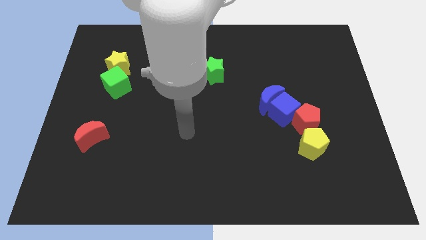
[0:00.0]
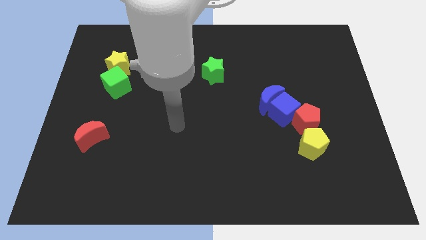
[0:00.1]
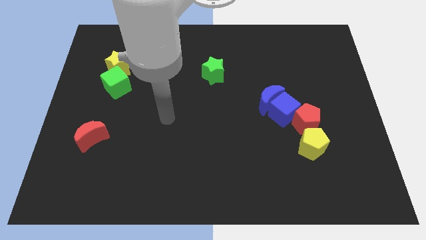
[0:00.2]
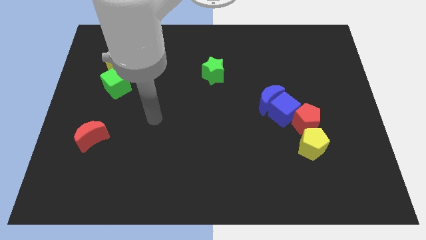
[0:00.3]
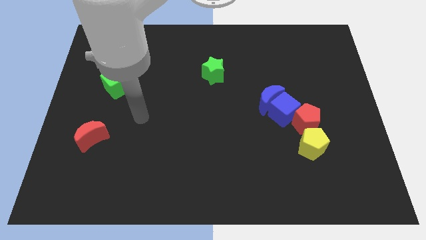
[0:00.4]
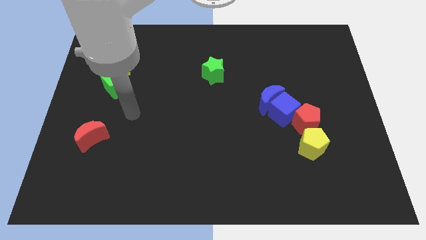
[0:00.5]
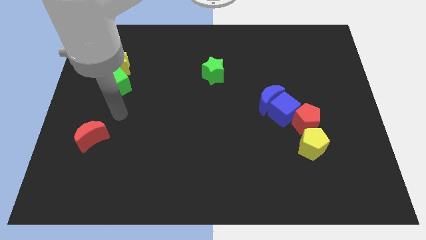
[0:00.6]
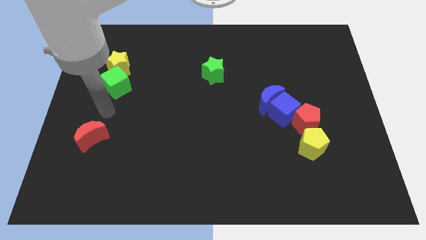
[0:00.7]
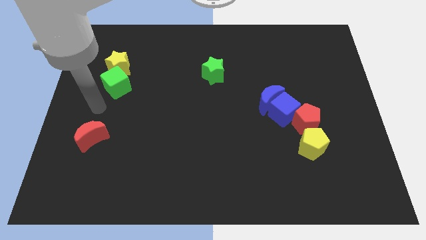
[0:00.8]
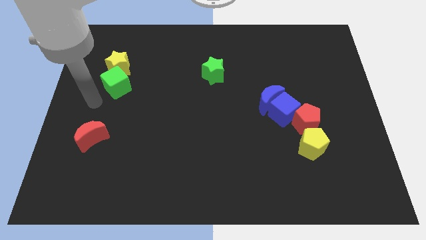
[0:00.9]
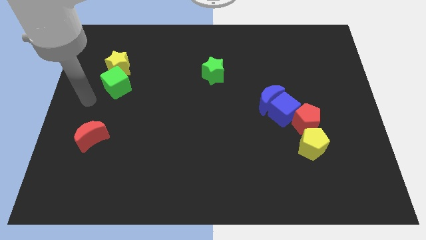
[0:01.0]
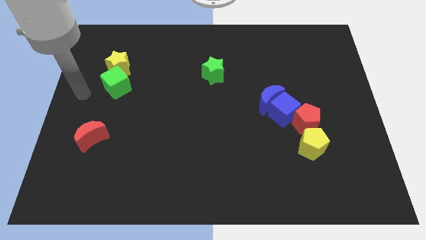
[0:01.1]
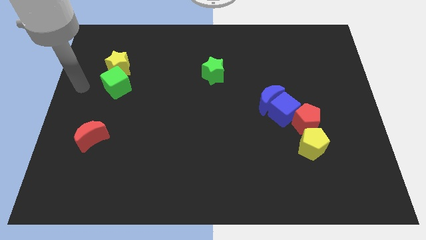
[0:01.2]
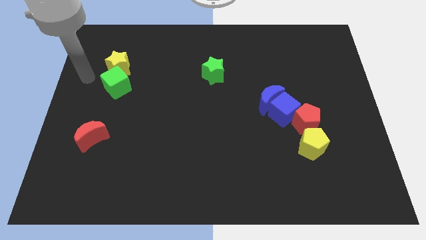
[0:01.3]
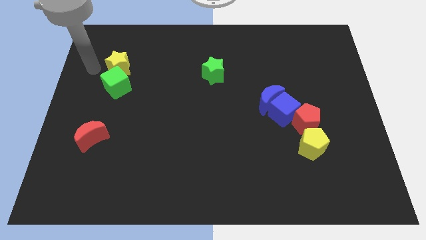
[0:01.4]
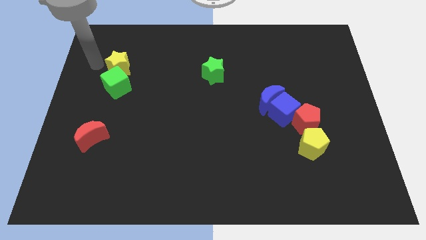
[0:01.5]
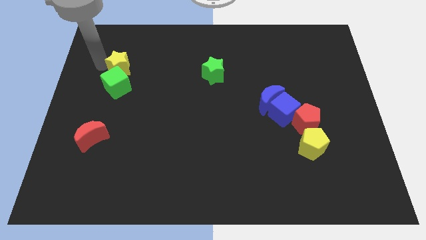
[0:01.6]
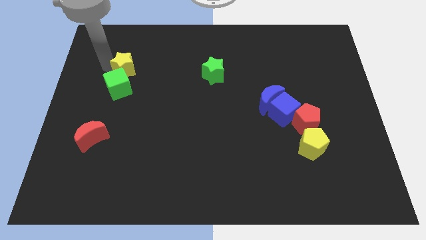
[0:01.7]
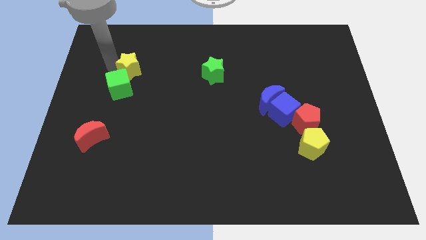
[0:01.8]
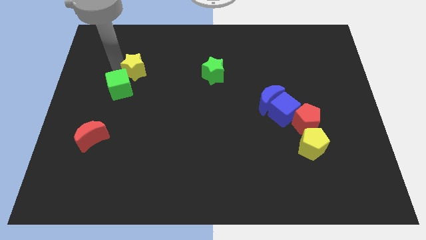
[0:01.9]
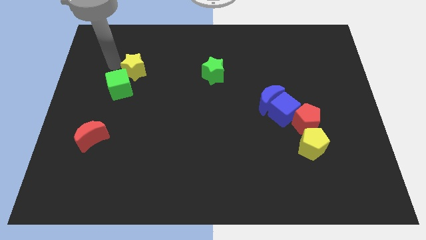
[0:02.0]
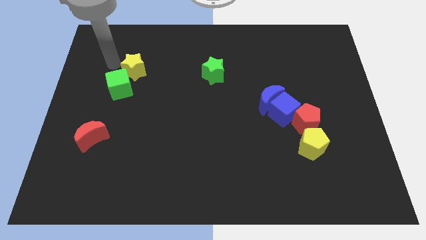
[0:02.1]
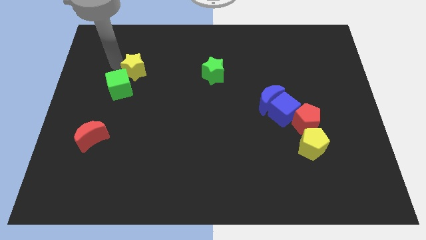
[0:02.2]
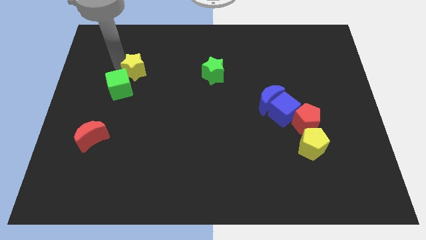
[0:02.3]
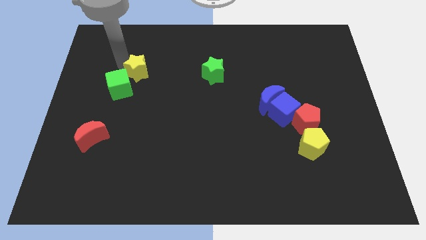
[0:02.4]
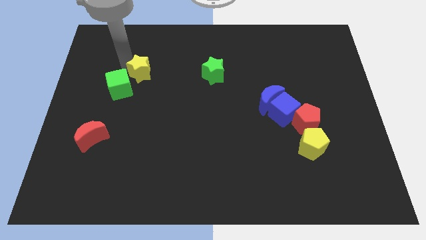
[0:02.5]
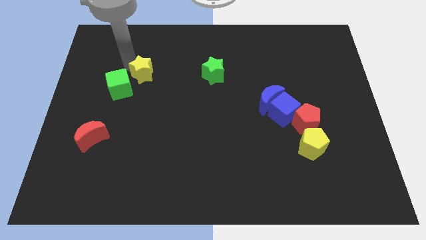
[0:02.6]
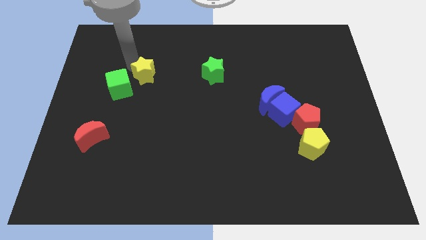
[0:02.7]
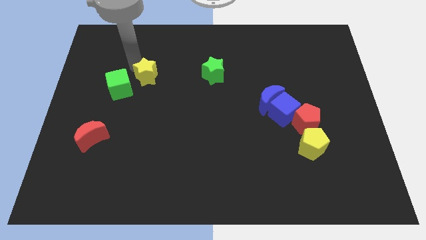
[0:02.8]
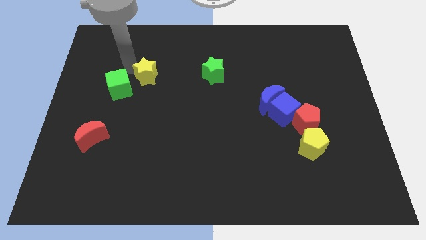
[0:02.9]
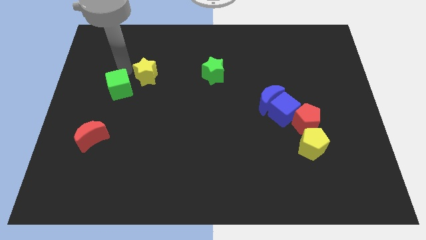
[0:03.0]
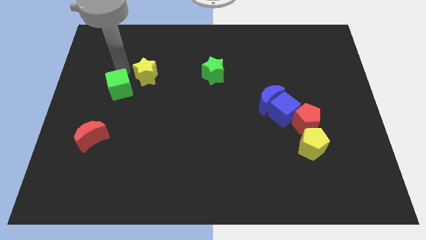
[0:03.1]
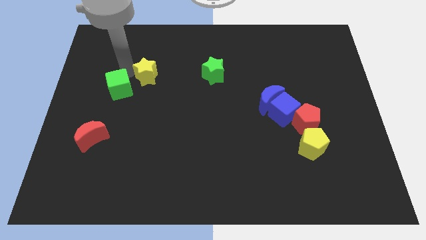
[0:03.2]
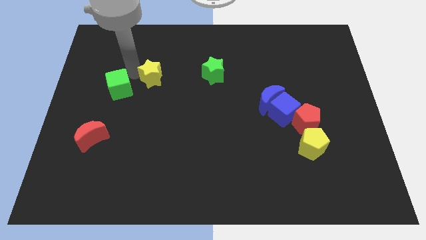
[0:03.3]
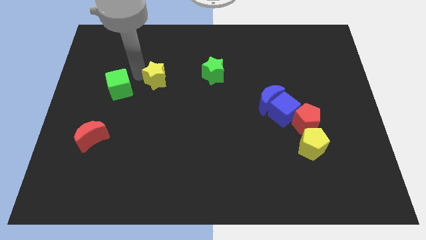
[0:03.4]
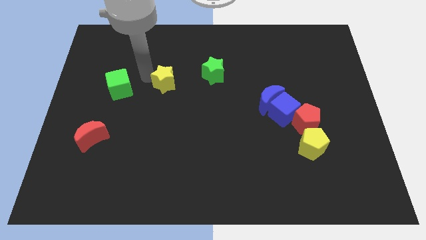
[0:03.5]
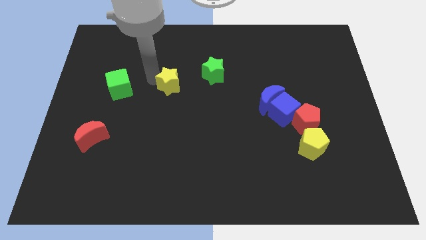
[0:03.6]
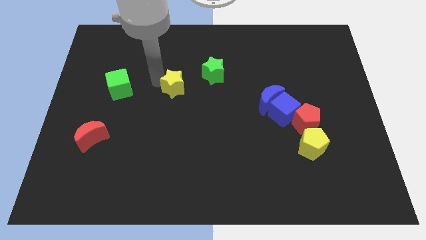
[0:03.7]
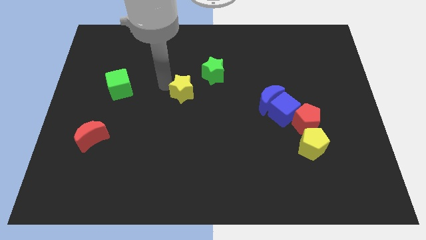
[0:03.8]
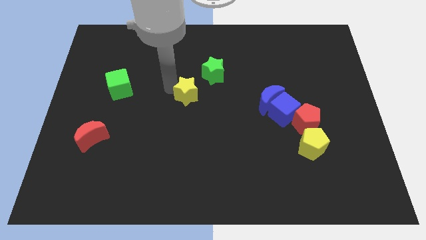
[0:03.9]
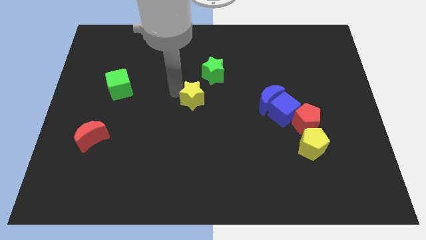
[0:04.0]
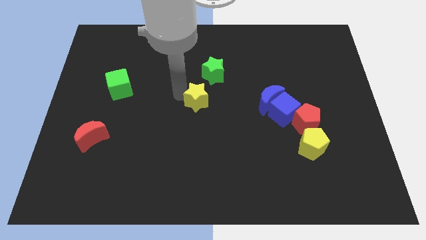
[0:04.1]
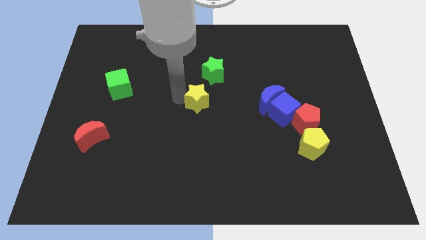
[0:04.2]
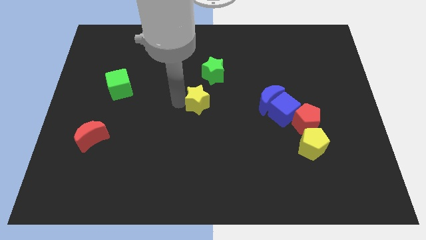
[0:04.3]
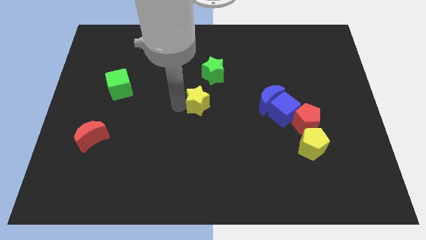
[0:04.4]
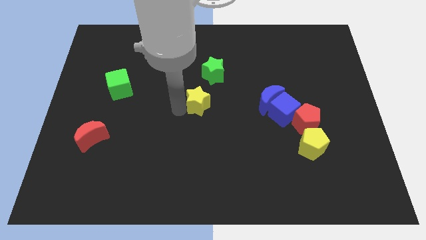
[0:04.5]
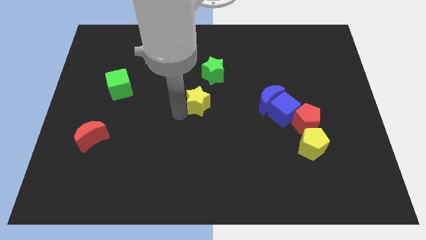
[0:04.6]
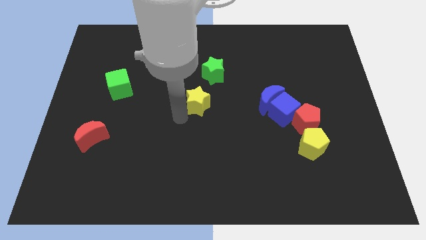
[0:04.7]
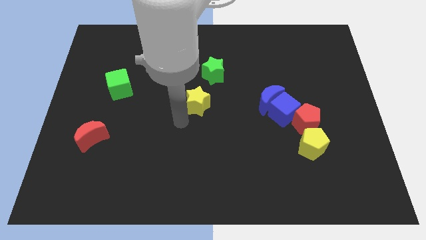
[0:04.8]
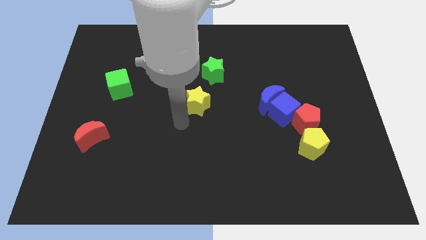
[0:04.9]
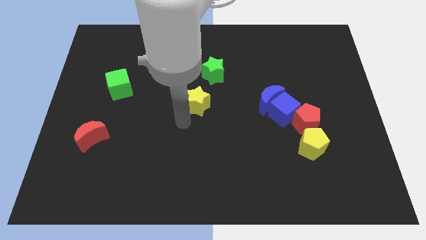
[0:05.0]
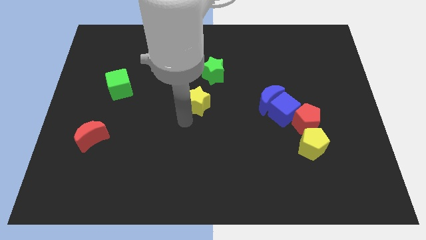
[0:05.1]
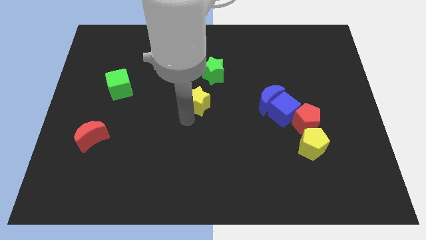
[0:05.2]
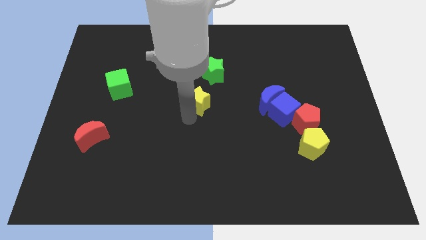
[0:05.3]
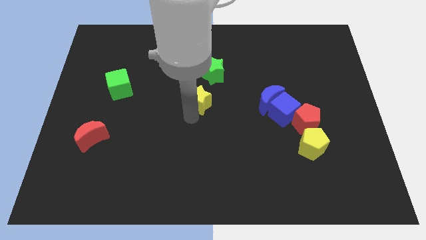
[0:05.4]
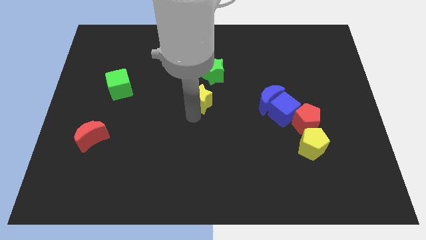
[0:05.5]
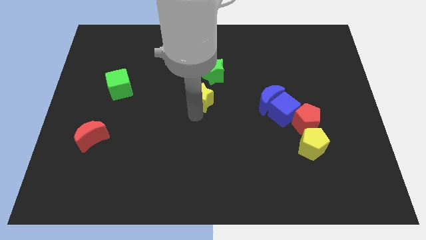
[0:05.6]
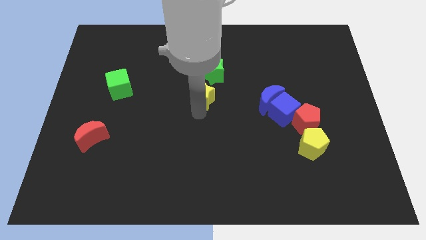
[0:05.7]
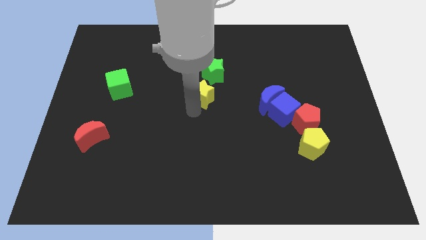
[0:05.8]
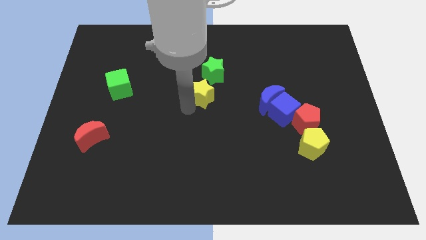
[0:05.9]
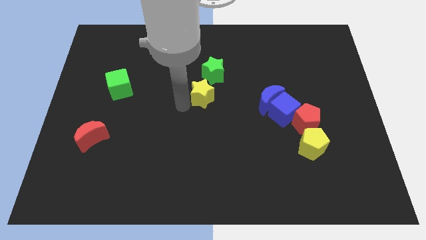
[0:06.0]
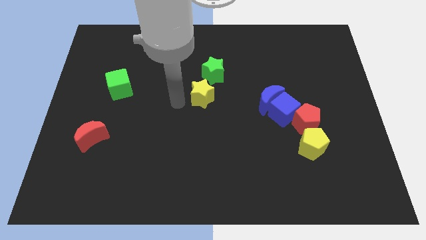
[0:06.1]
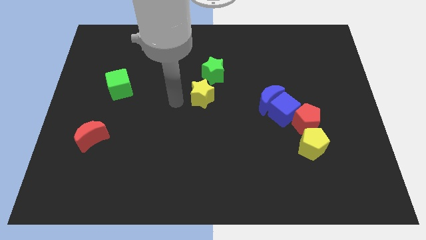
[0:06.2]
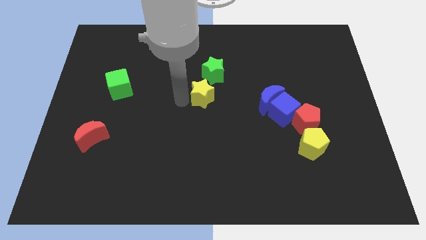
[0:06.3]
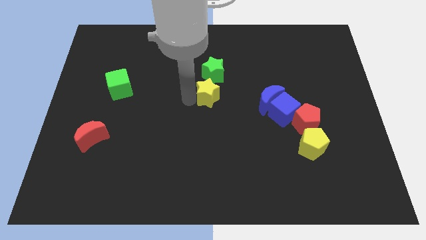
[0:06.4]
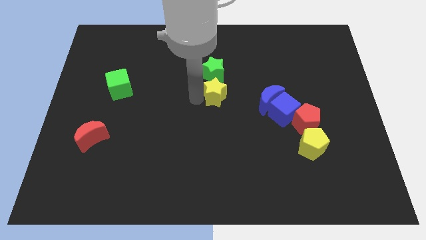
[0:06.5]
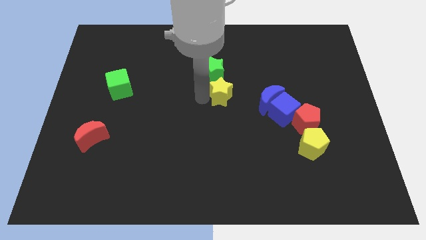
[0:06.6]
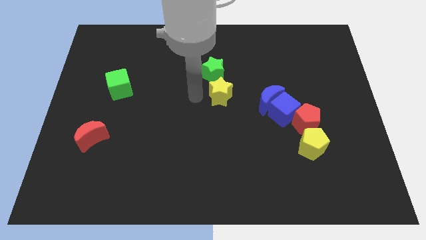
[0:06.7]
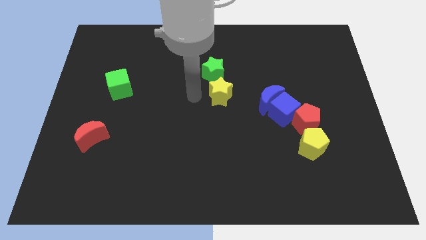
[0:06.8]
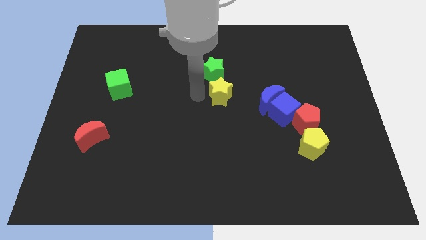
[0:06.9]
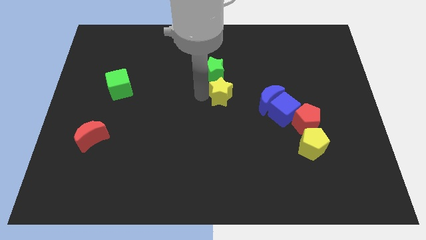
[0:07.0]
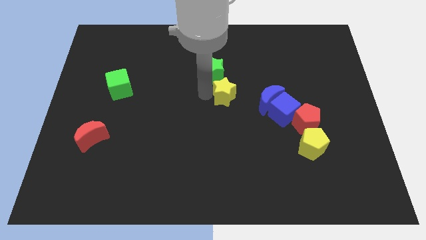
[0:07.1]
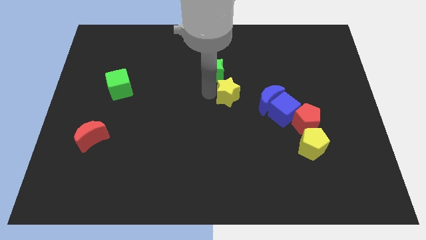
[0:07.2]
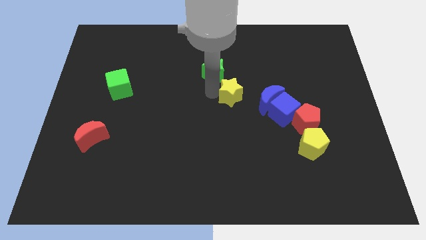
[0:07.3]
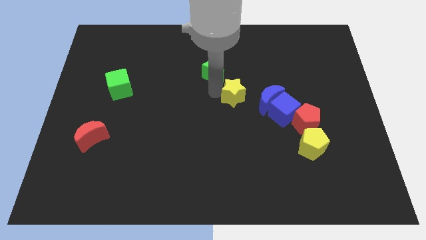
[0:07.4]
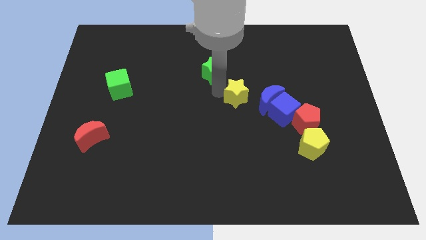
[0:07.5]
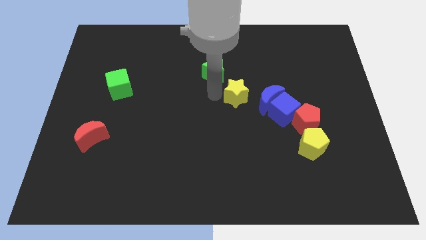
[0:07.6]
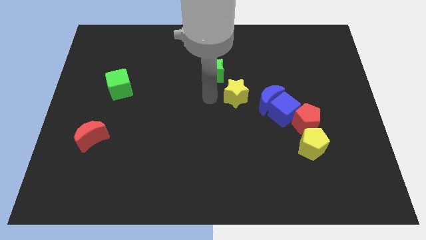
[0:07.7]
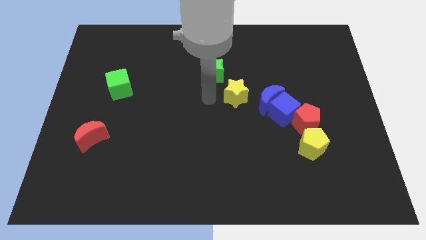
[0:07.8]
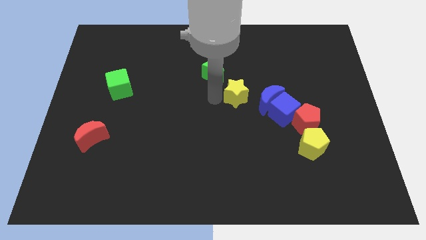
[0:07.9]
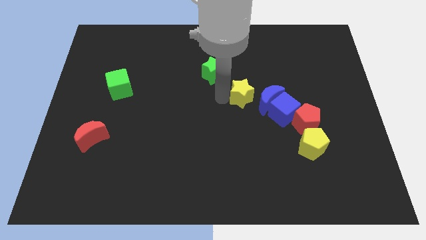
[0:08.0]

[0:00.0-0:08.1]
put the yellow star to the top left side of the blue cube
